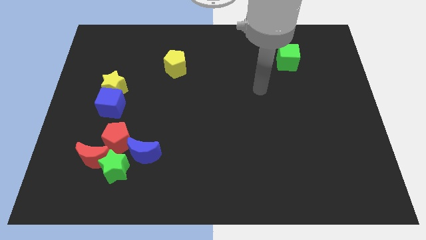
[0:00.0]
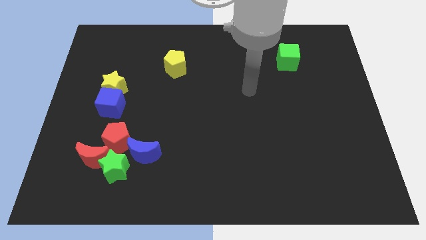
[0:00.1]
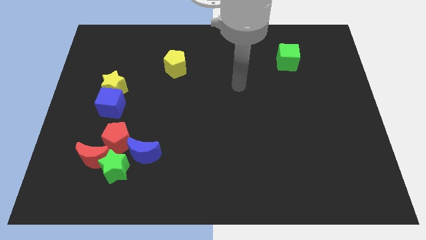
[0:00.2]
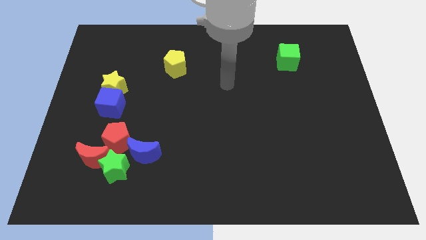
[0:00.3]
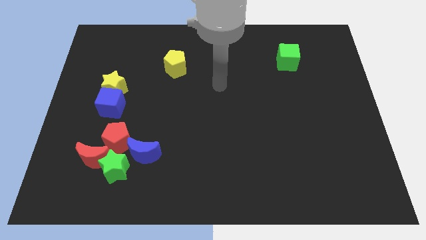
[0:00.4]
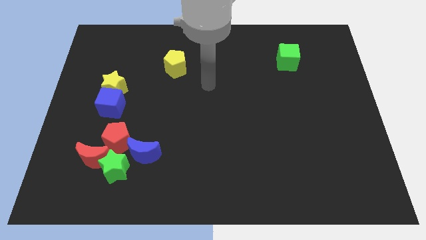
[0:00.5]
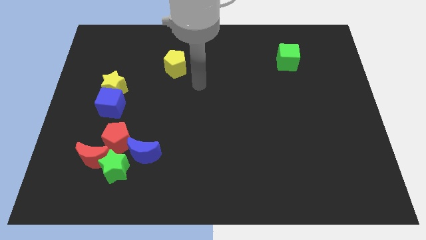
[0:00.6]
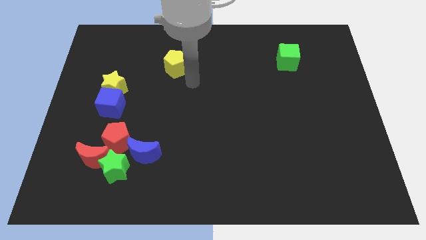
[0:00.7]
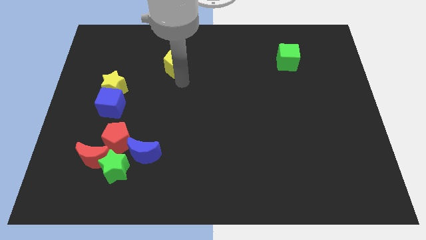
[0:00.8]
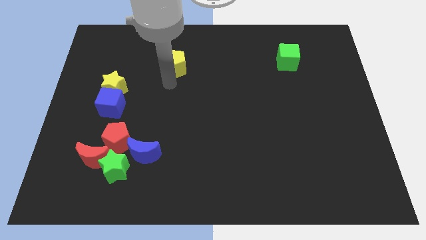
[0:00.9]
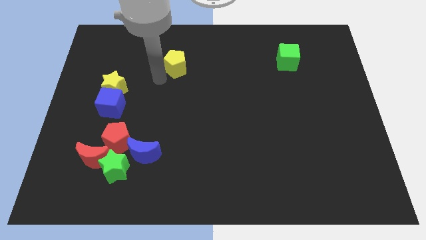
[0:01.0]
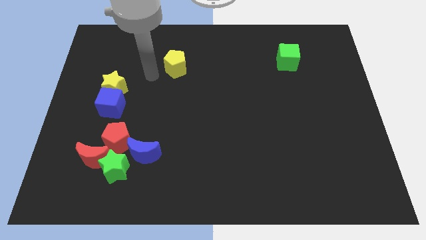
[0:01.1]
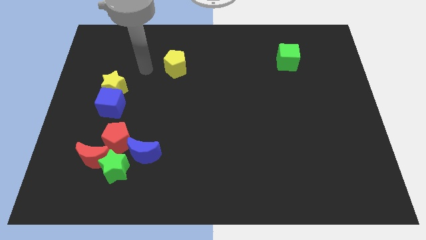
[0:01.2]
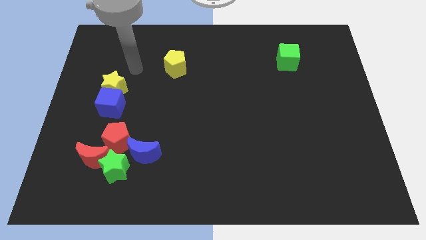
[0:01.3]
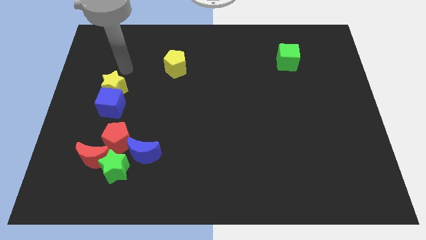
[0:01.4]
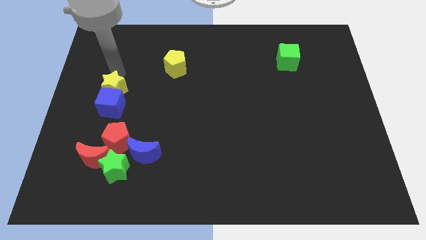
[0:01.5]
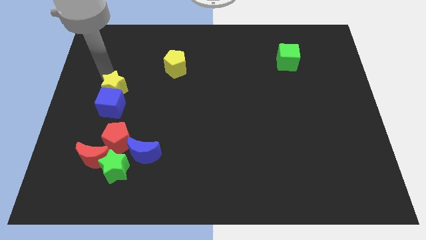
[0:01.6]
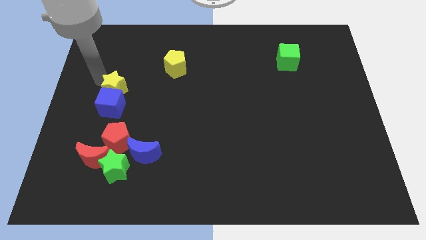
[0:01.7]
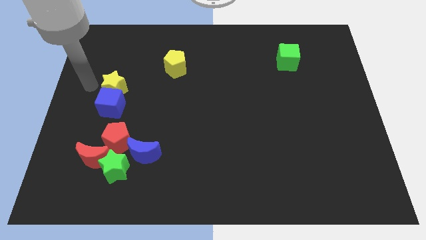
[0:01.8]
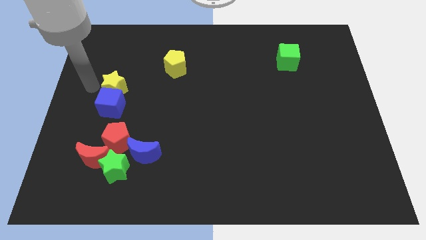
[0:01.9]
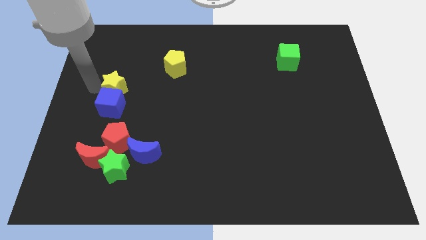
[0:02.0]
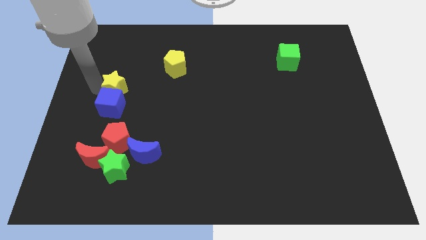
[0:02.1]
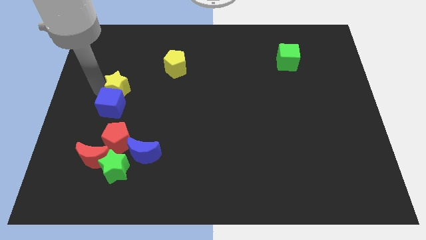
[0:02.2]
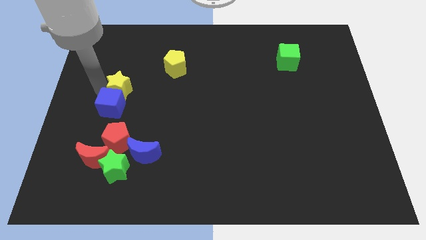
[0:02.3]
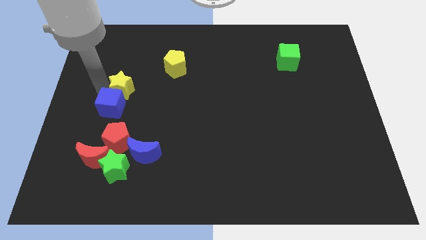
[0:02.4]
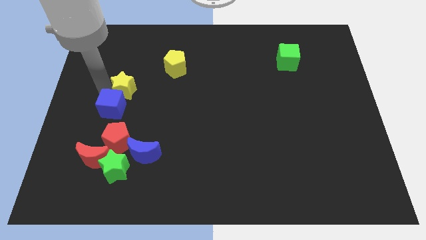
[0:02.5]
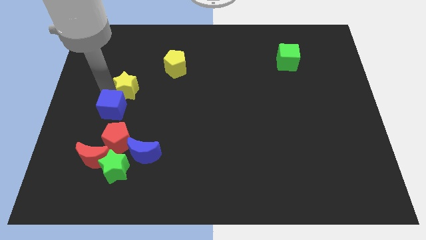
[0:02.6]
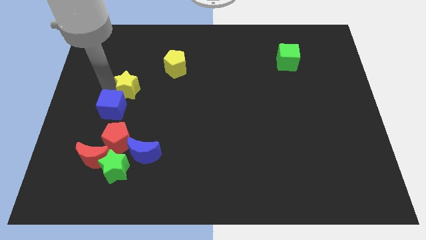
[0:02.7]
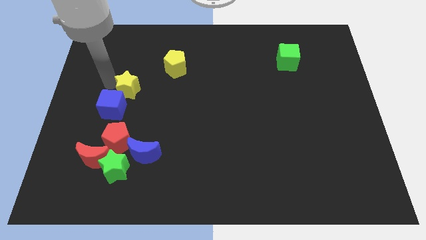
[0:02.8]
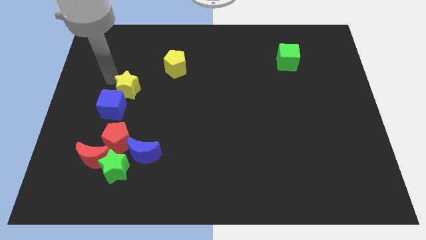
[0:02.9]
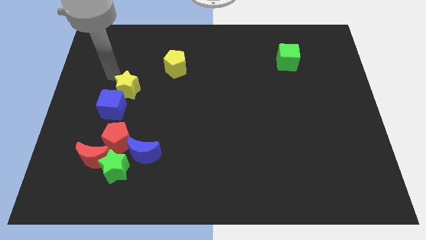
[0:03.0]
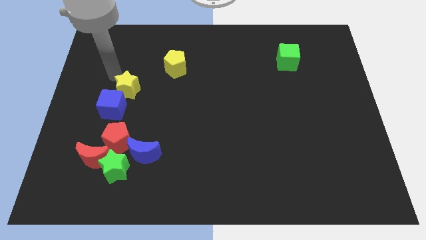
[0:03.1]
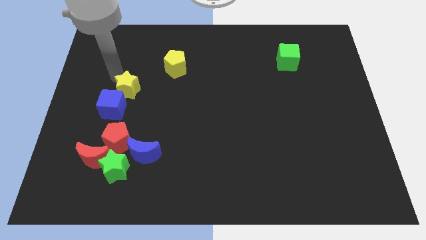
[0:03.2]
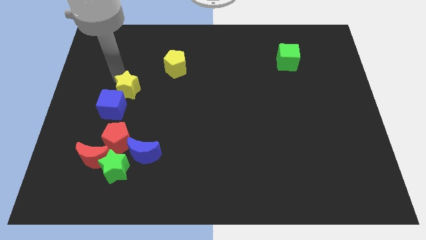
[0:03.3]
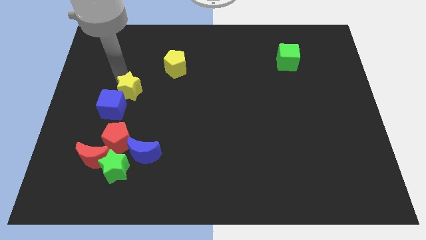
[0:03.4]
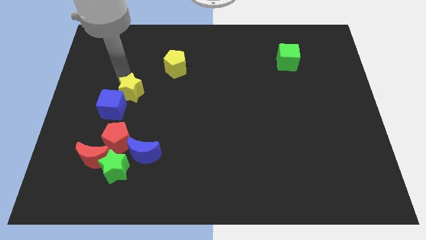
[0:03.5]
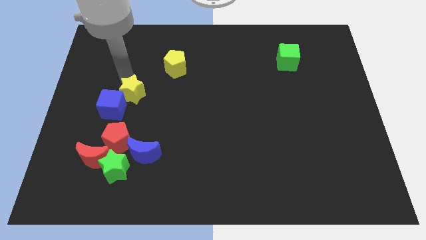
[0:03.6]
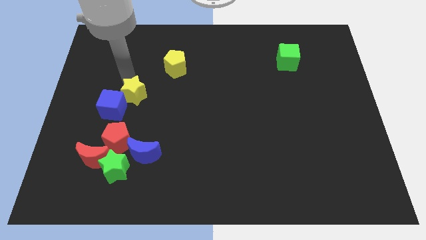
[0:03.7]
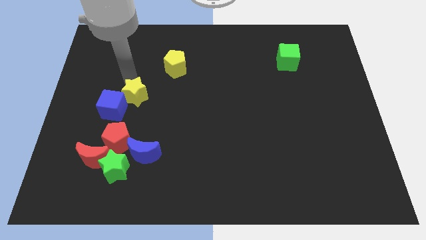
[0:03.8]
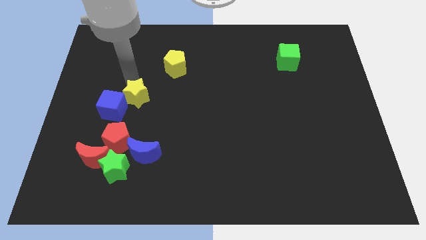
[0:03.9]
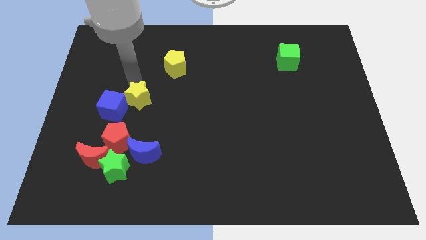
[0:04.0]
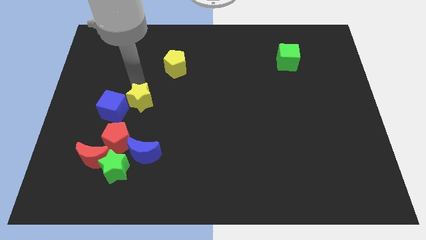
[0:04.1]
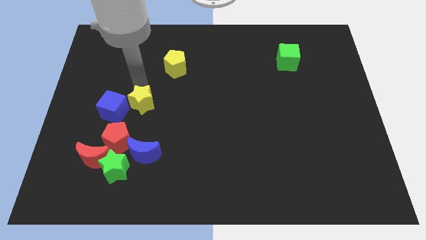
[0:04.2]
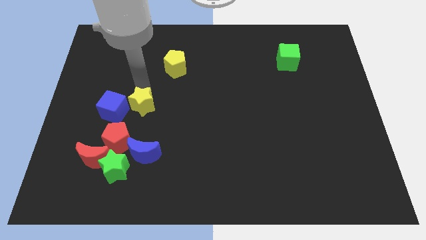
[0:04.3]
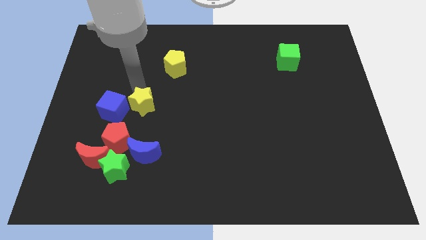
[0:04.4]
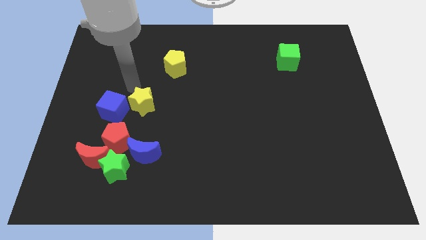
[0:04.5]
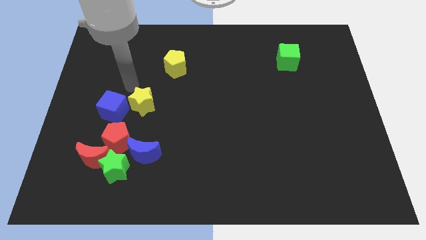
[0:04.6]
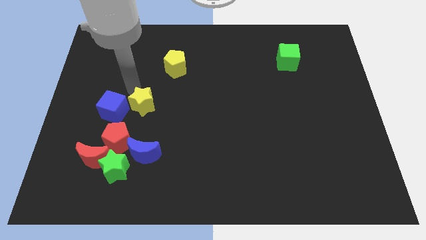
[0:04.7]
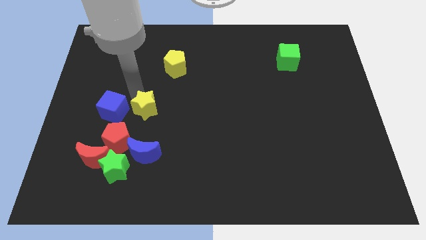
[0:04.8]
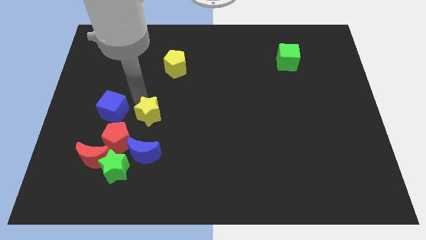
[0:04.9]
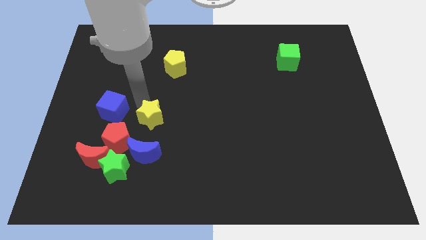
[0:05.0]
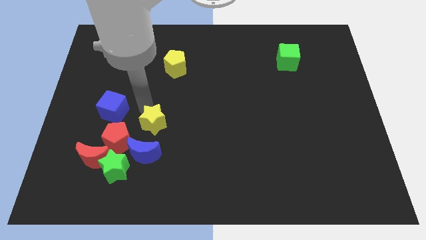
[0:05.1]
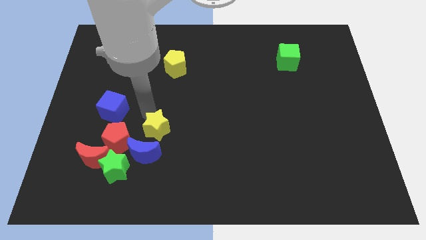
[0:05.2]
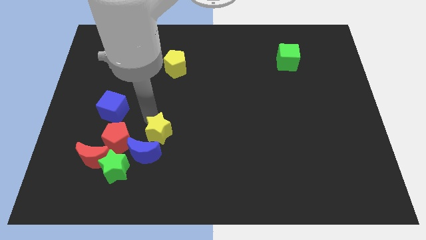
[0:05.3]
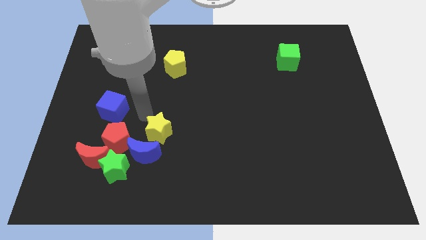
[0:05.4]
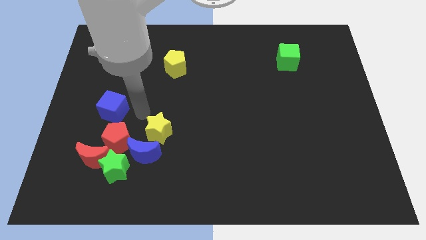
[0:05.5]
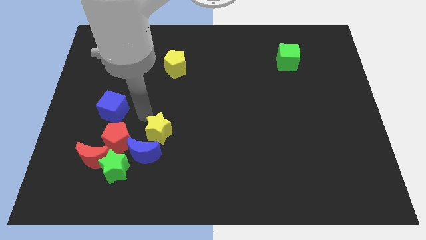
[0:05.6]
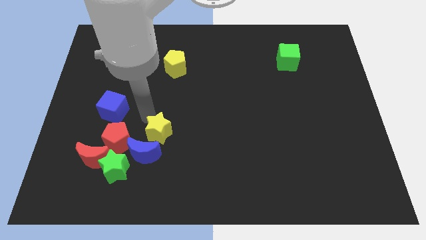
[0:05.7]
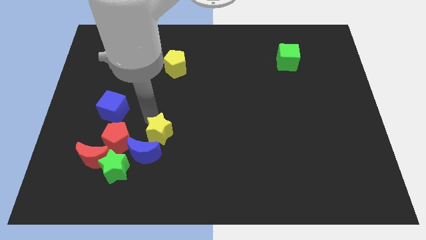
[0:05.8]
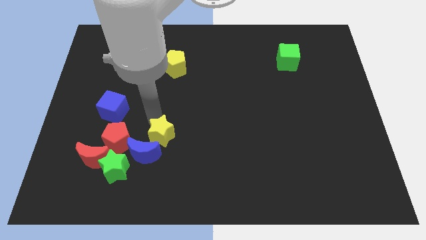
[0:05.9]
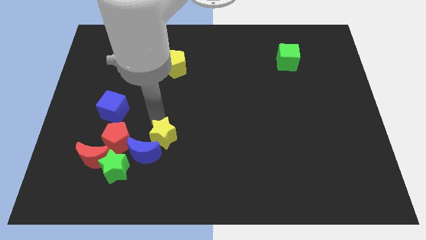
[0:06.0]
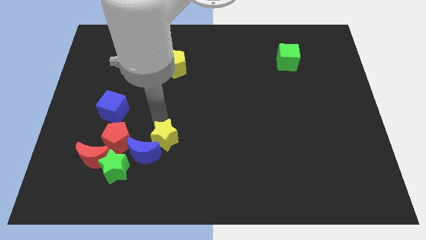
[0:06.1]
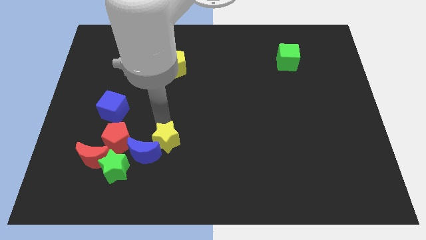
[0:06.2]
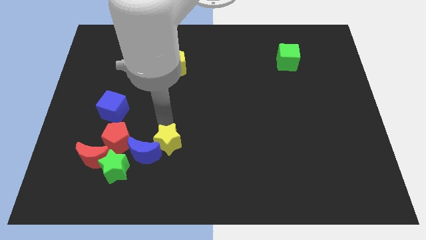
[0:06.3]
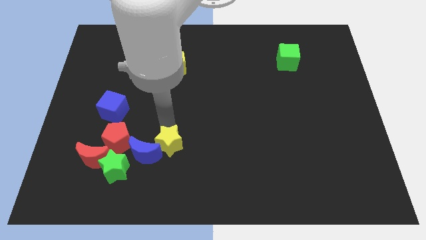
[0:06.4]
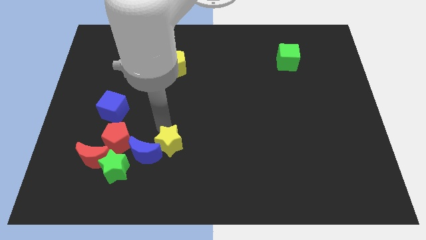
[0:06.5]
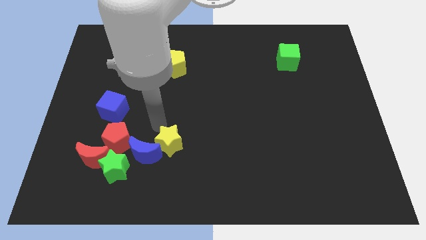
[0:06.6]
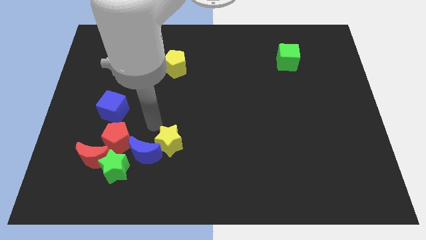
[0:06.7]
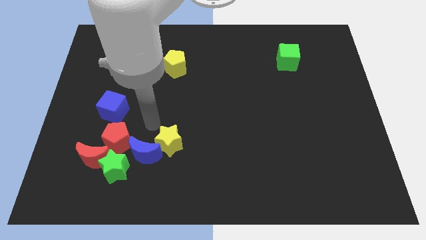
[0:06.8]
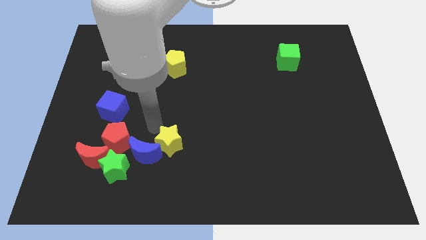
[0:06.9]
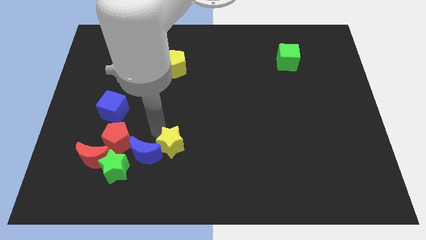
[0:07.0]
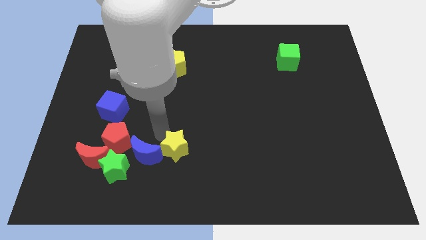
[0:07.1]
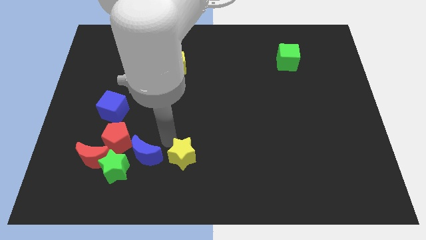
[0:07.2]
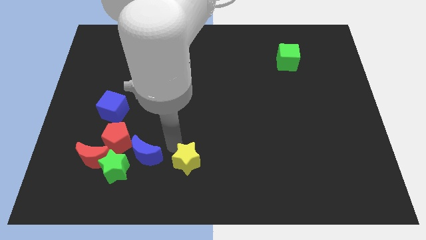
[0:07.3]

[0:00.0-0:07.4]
put the yellow star to the bottom side
